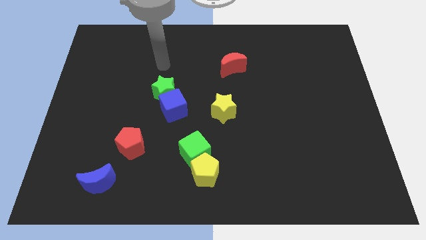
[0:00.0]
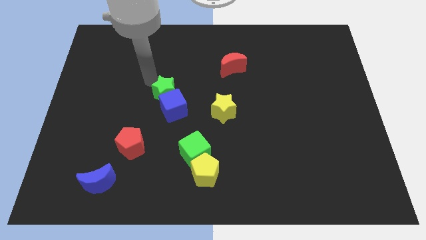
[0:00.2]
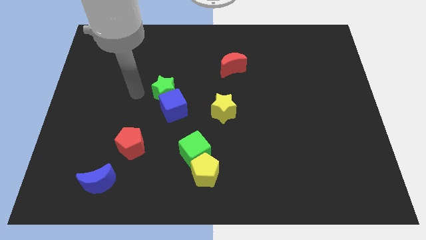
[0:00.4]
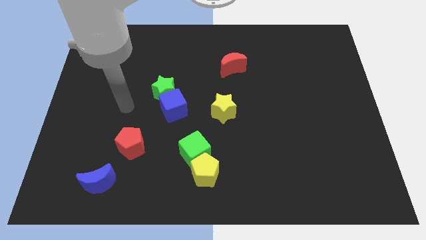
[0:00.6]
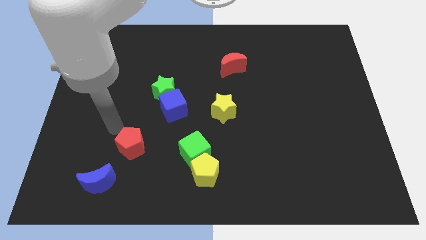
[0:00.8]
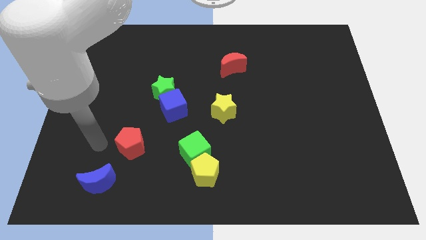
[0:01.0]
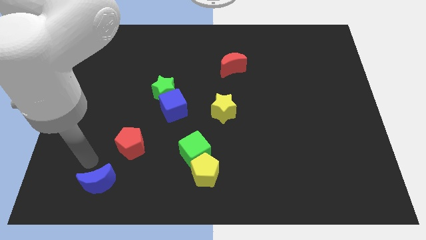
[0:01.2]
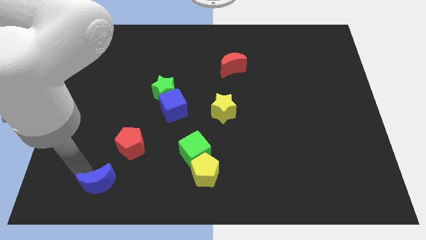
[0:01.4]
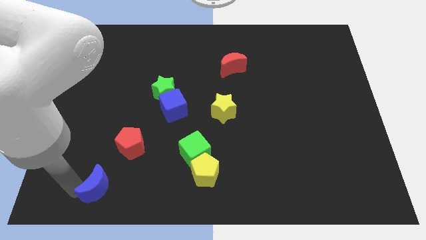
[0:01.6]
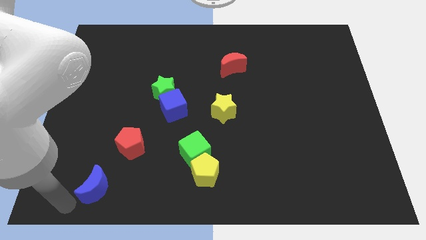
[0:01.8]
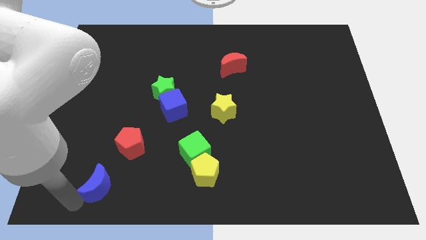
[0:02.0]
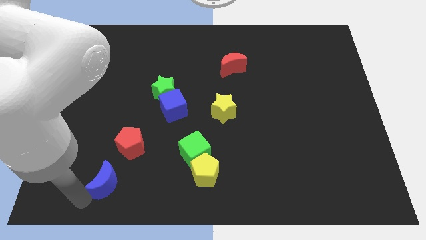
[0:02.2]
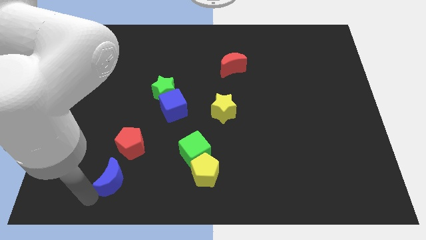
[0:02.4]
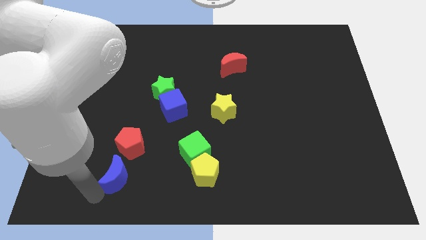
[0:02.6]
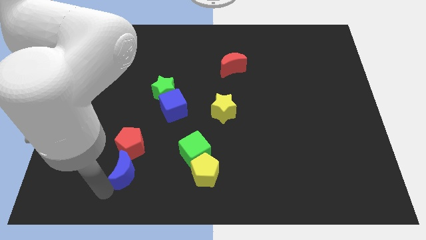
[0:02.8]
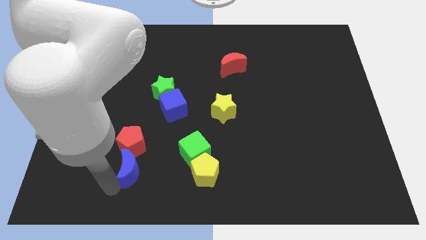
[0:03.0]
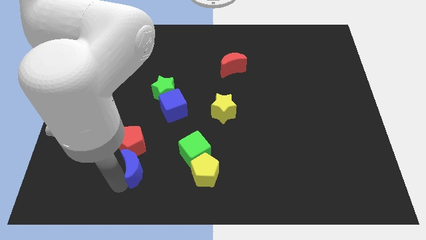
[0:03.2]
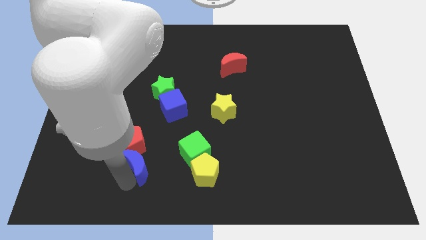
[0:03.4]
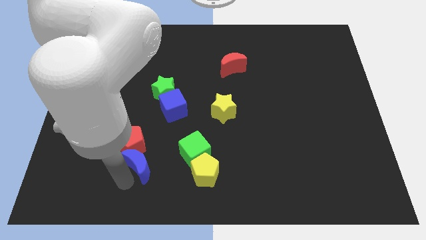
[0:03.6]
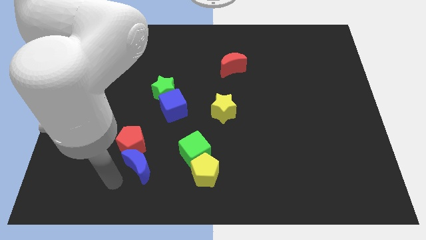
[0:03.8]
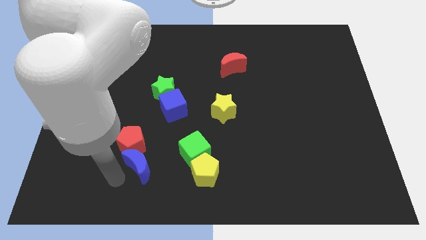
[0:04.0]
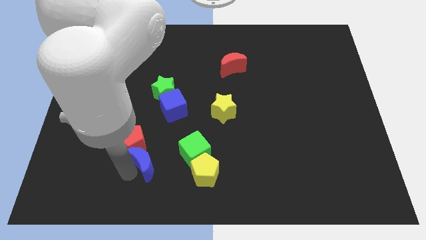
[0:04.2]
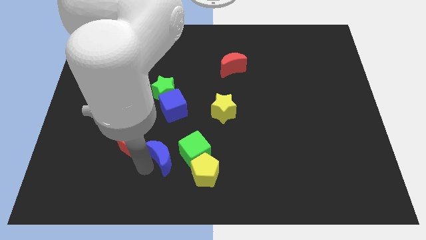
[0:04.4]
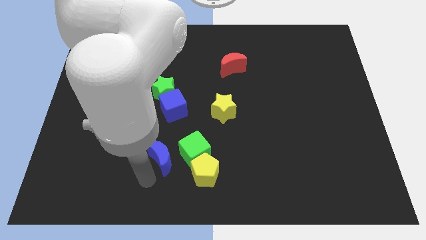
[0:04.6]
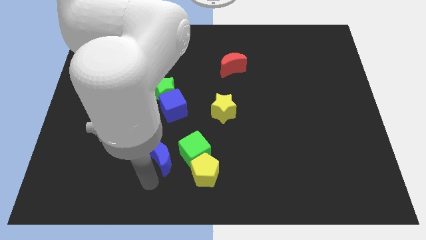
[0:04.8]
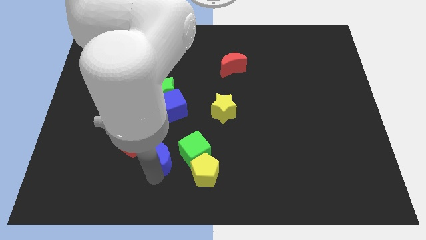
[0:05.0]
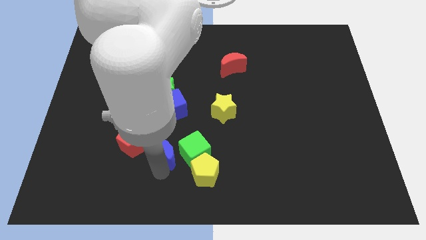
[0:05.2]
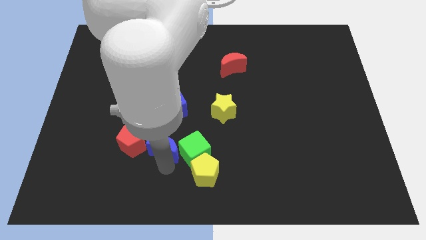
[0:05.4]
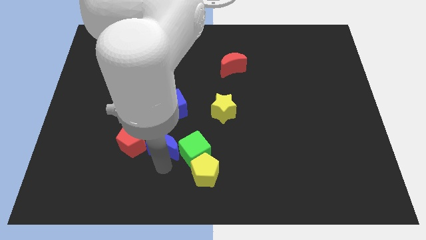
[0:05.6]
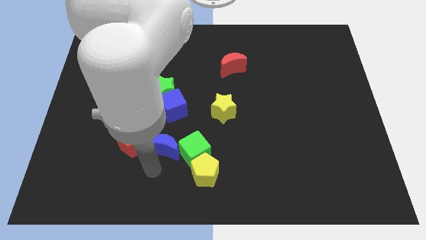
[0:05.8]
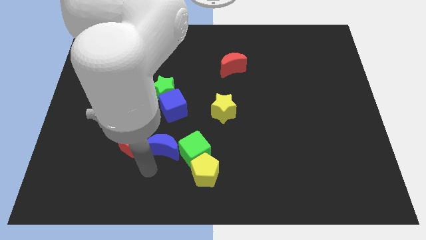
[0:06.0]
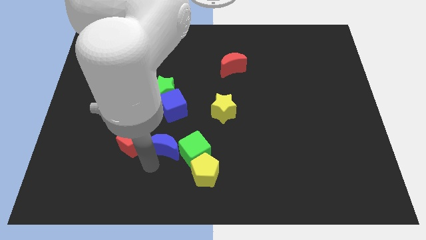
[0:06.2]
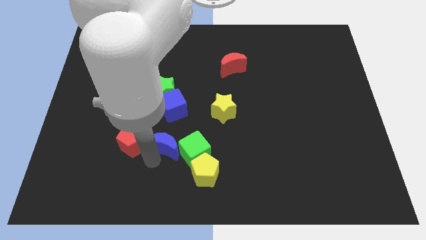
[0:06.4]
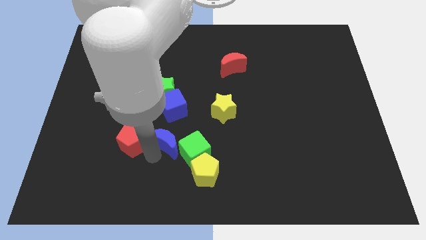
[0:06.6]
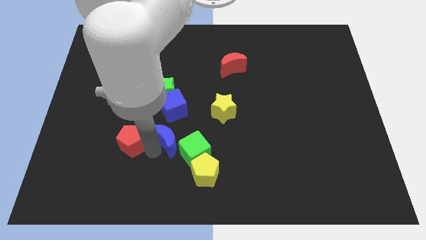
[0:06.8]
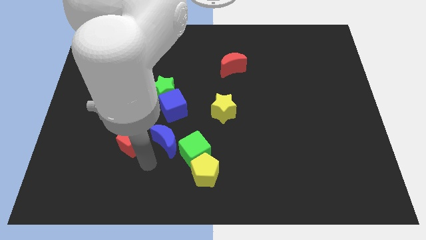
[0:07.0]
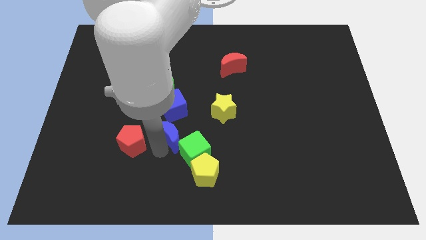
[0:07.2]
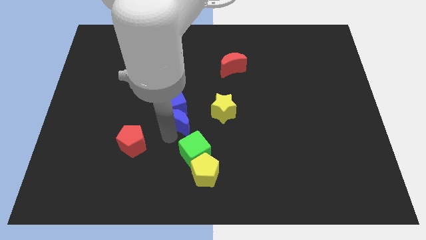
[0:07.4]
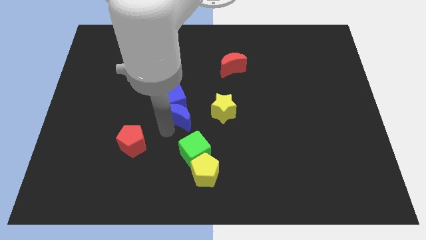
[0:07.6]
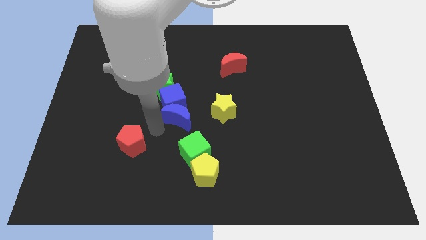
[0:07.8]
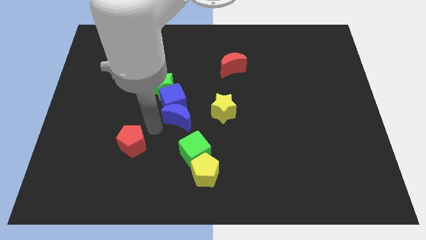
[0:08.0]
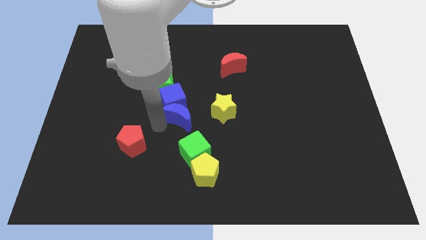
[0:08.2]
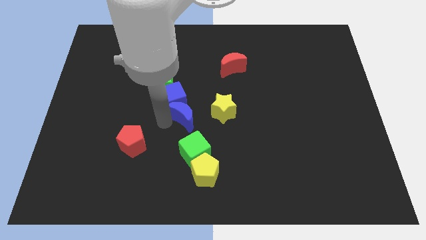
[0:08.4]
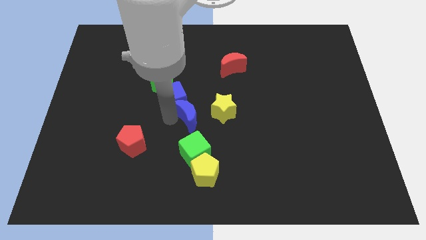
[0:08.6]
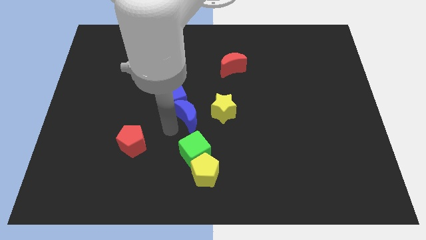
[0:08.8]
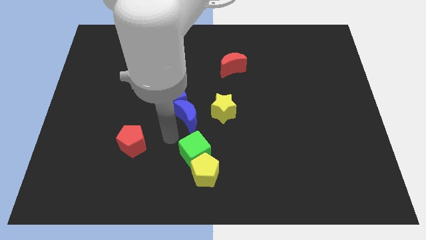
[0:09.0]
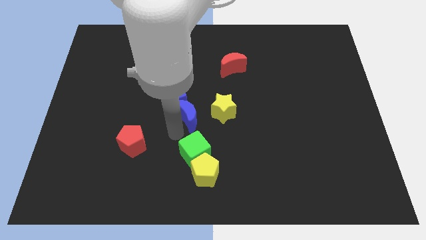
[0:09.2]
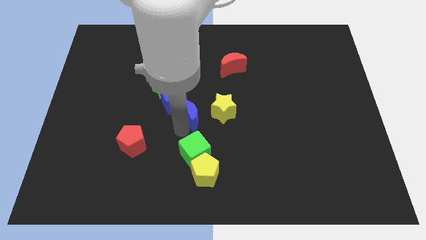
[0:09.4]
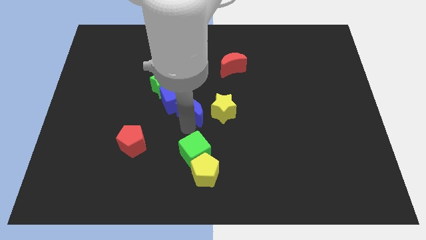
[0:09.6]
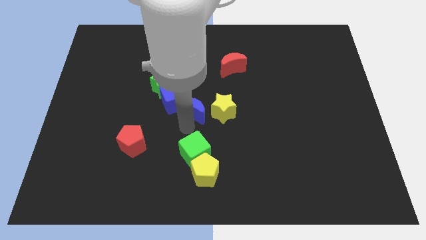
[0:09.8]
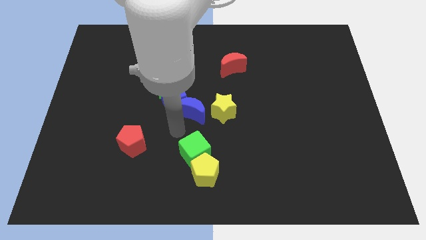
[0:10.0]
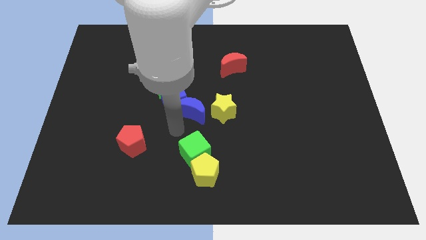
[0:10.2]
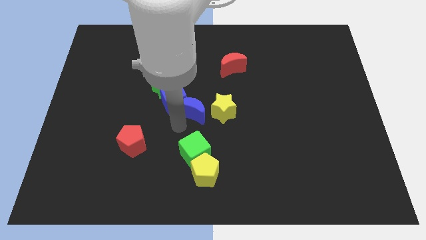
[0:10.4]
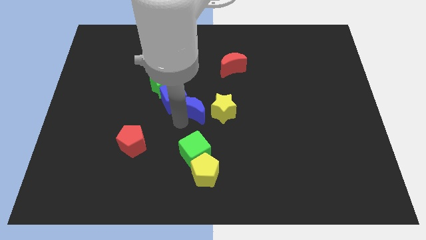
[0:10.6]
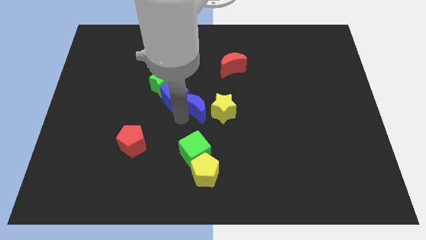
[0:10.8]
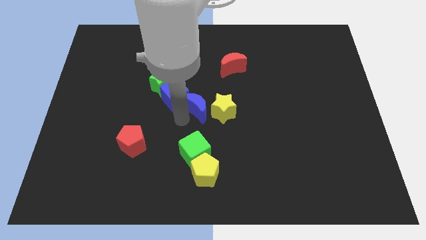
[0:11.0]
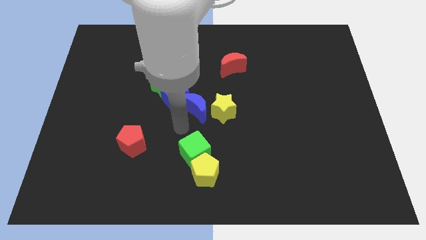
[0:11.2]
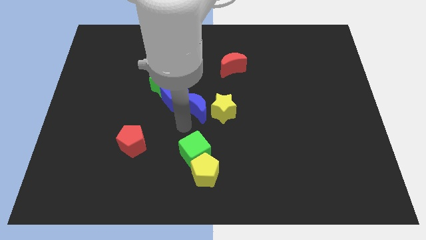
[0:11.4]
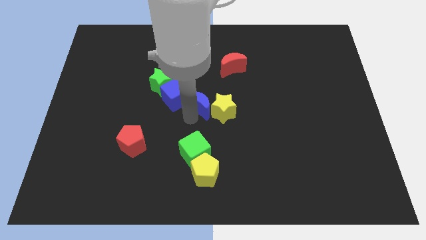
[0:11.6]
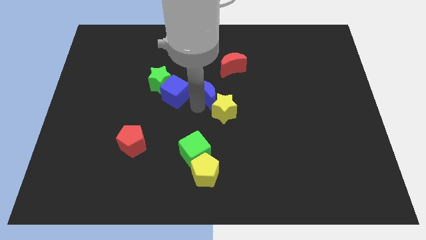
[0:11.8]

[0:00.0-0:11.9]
put the blue moon above the yellow star

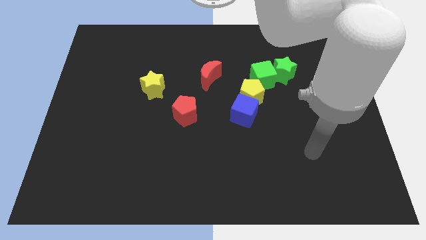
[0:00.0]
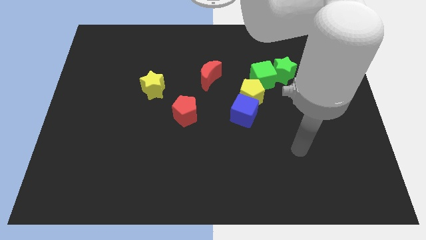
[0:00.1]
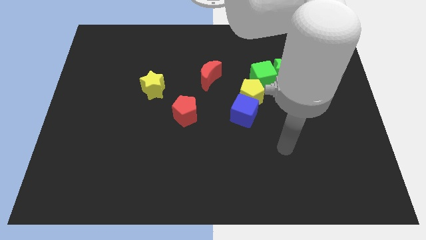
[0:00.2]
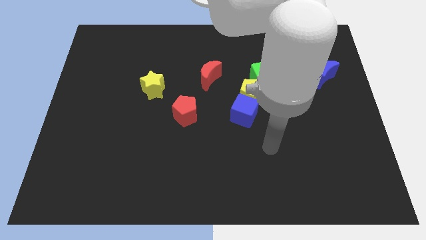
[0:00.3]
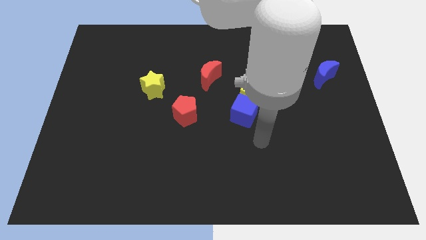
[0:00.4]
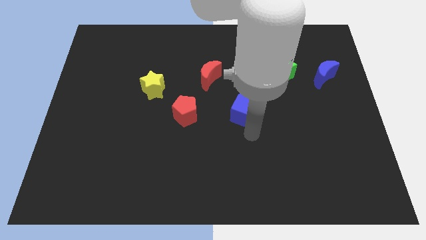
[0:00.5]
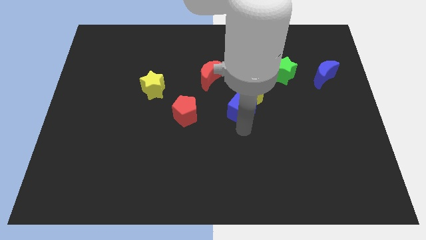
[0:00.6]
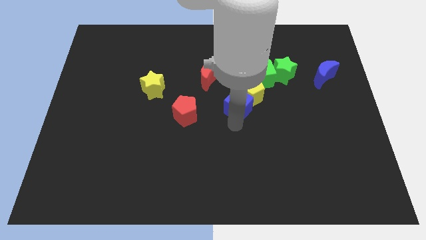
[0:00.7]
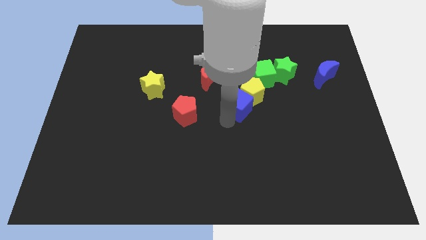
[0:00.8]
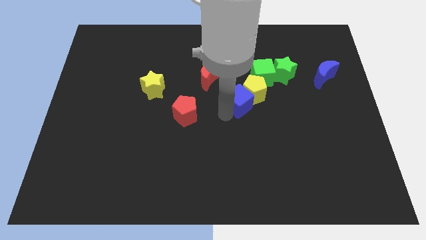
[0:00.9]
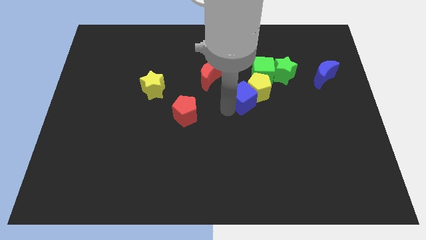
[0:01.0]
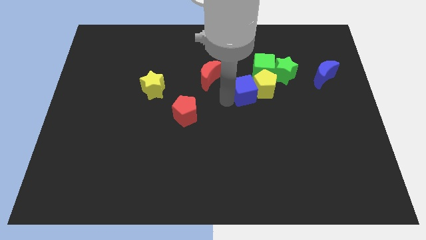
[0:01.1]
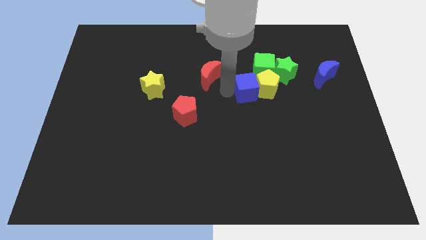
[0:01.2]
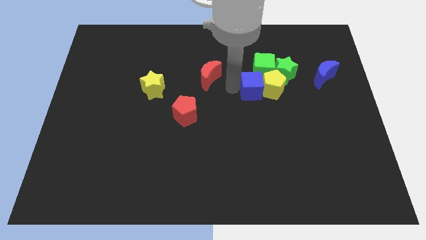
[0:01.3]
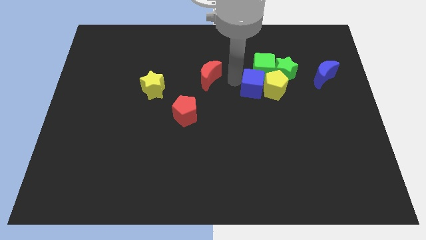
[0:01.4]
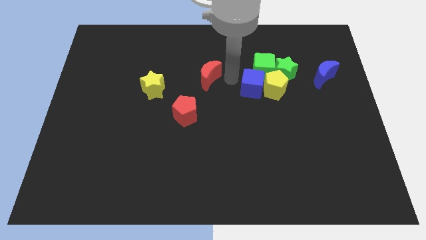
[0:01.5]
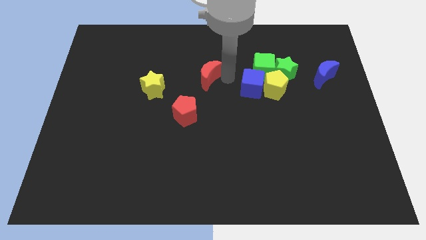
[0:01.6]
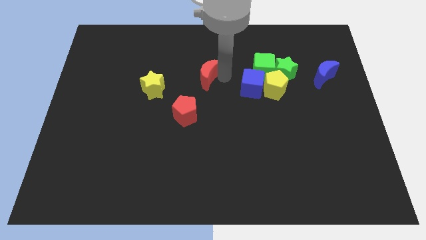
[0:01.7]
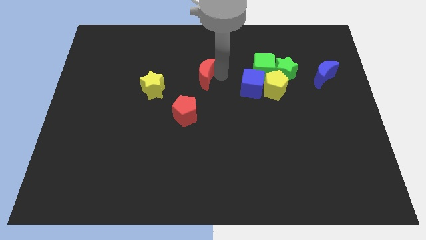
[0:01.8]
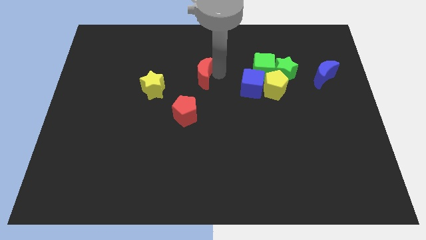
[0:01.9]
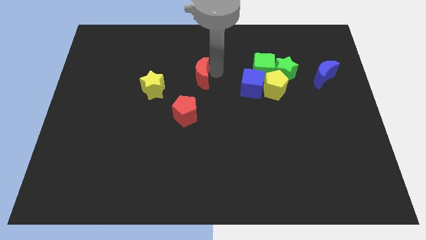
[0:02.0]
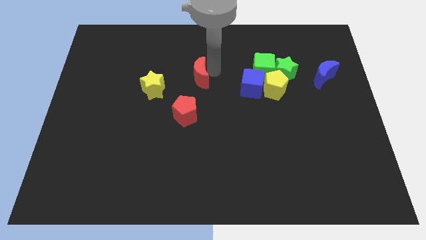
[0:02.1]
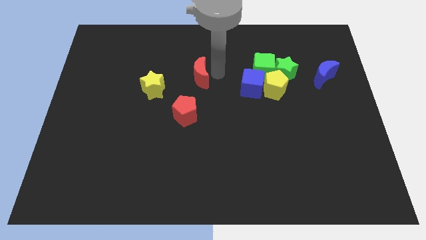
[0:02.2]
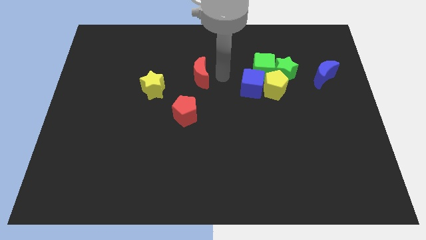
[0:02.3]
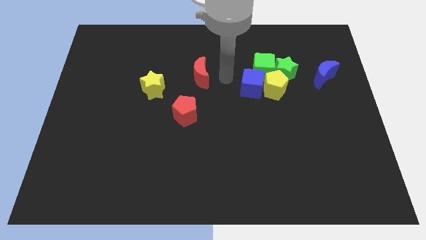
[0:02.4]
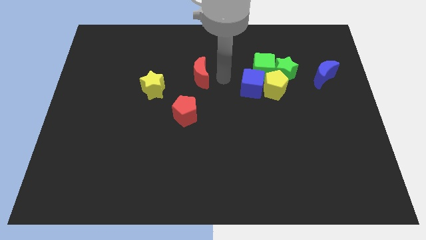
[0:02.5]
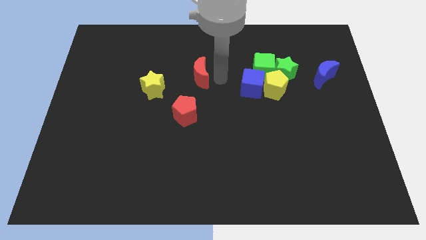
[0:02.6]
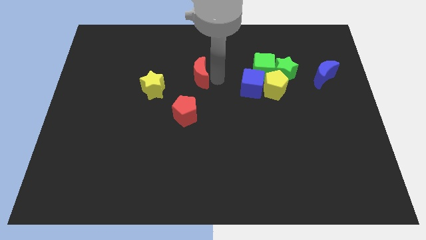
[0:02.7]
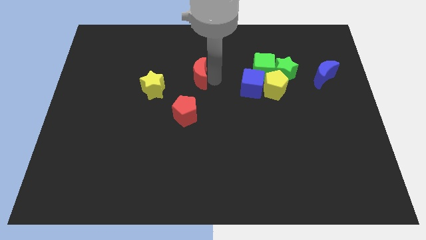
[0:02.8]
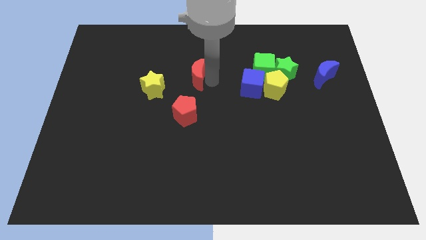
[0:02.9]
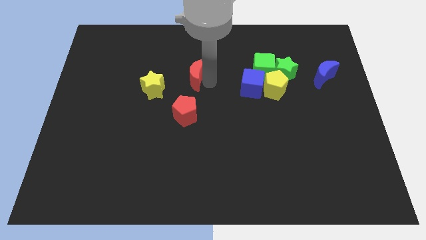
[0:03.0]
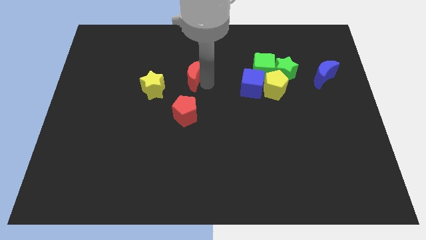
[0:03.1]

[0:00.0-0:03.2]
put the red moon diagonally up and to the right of the yellow star
